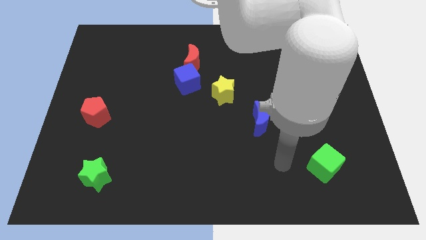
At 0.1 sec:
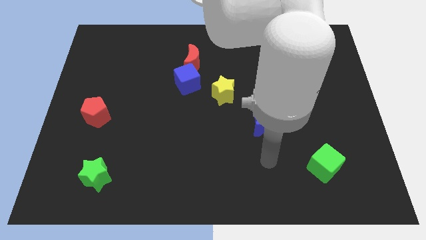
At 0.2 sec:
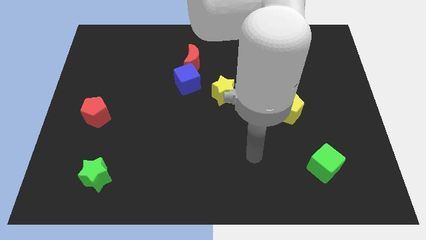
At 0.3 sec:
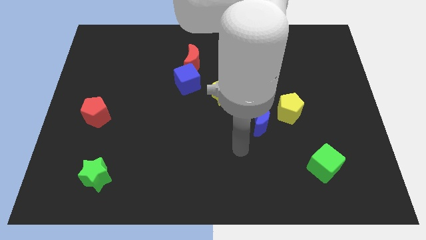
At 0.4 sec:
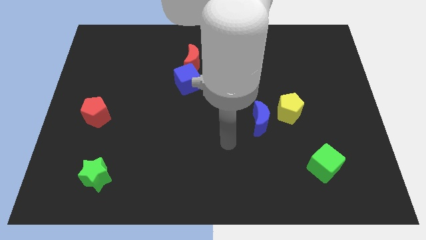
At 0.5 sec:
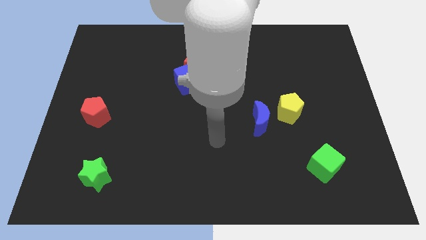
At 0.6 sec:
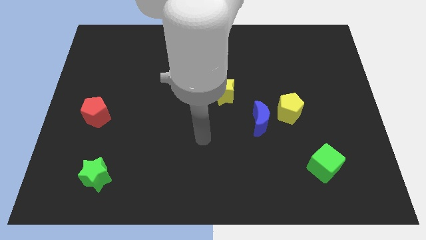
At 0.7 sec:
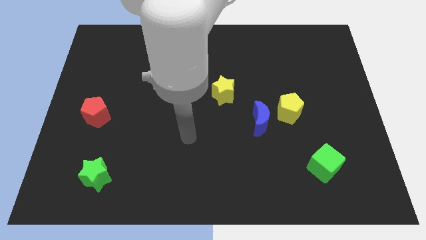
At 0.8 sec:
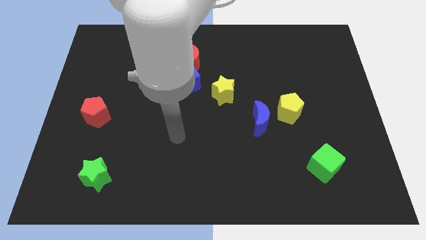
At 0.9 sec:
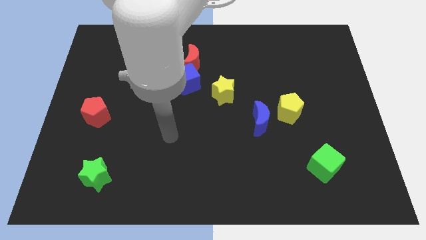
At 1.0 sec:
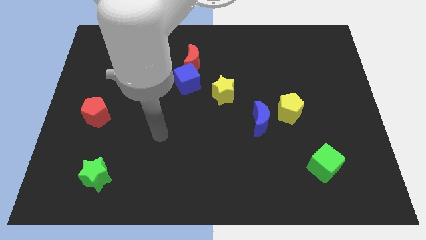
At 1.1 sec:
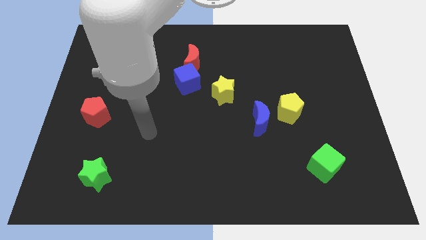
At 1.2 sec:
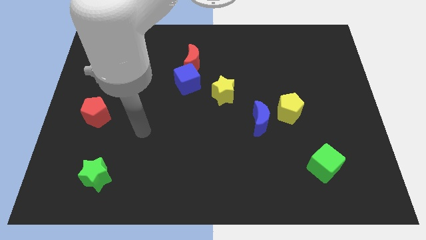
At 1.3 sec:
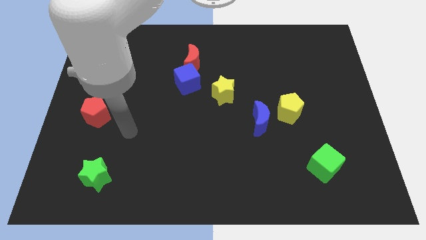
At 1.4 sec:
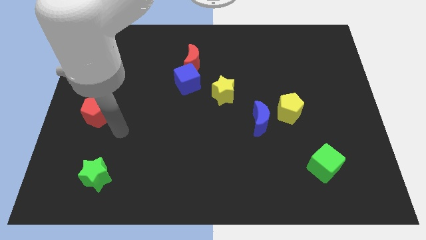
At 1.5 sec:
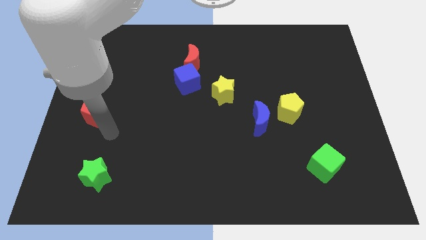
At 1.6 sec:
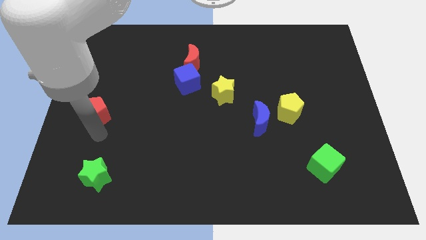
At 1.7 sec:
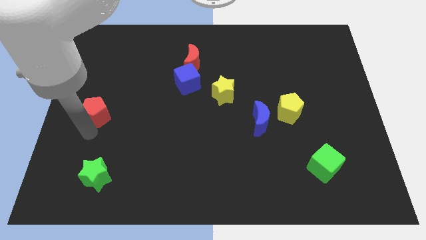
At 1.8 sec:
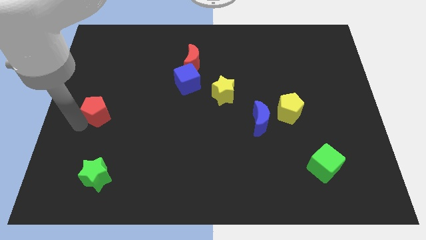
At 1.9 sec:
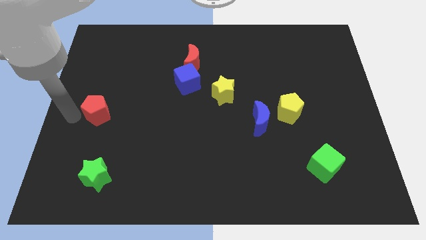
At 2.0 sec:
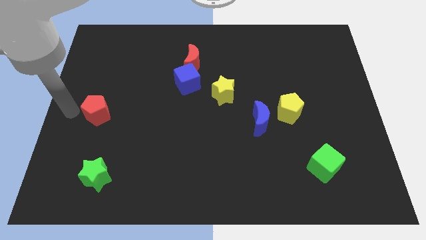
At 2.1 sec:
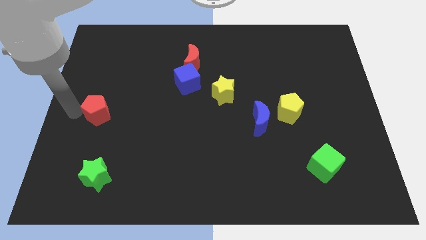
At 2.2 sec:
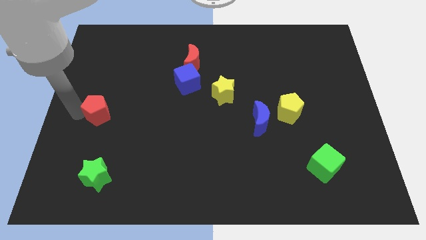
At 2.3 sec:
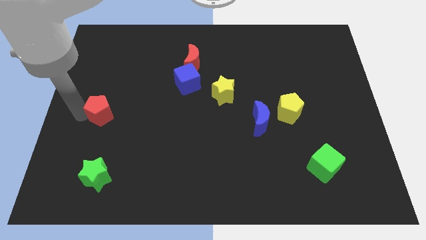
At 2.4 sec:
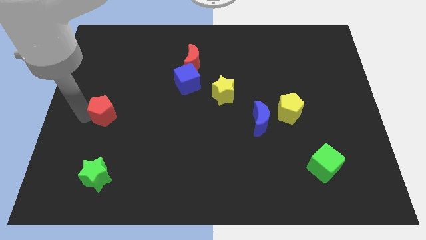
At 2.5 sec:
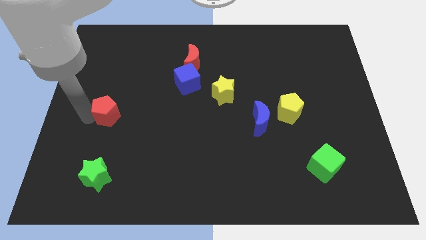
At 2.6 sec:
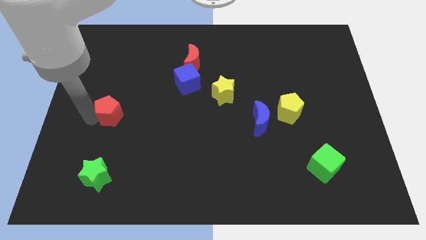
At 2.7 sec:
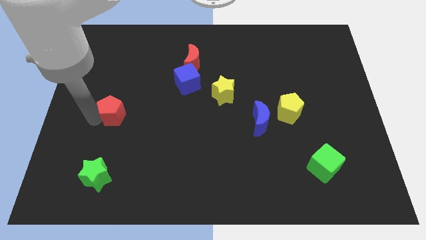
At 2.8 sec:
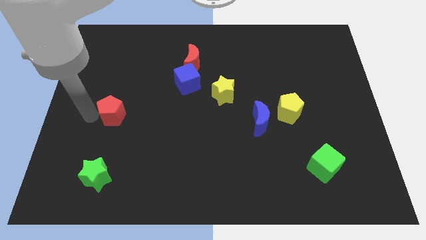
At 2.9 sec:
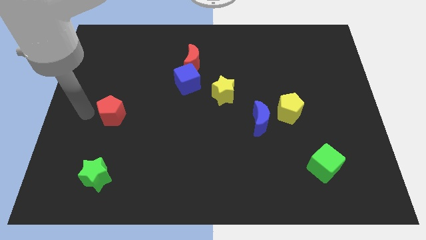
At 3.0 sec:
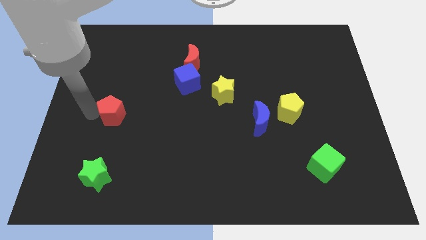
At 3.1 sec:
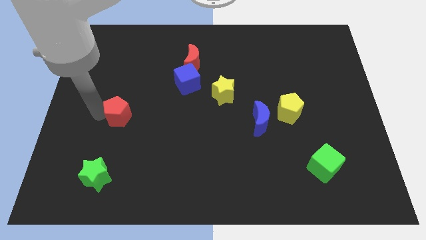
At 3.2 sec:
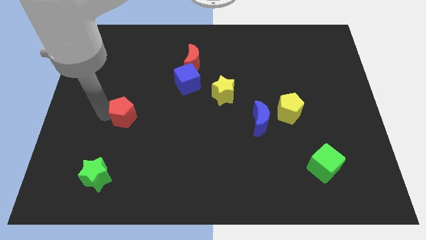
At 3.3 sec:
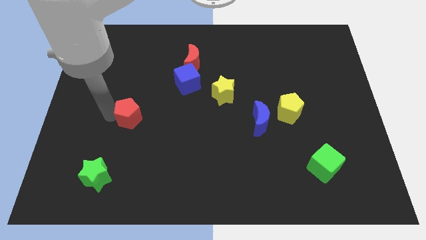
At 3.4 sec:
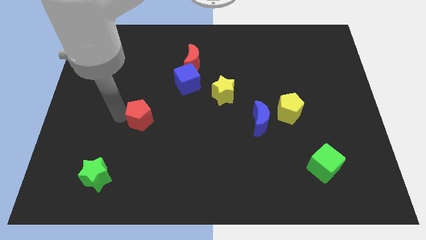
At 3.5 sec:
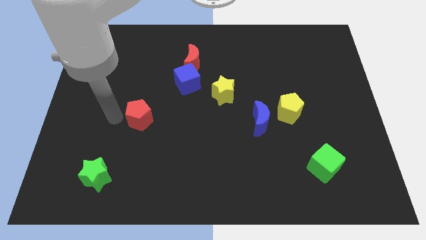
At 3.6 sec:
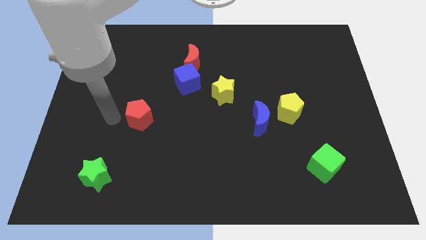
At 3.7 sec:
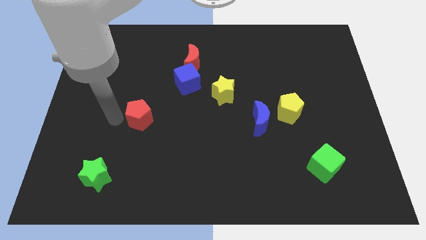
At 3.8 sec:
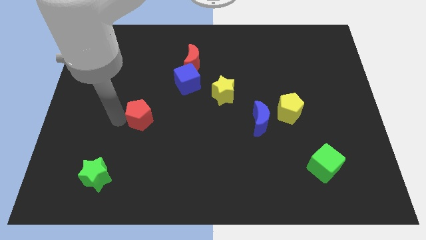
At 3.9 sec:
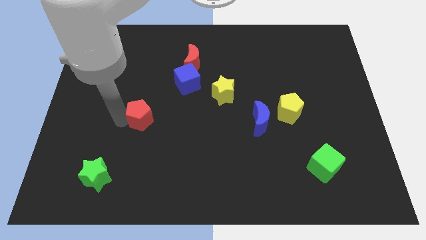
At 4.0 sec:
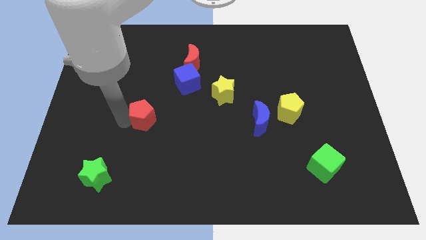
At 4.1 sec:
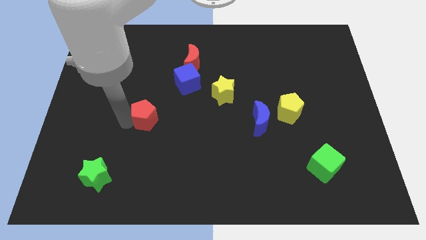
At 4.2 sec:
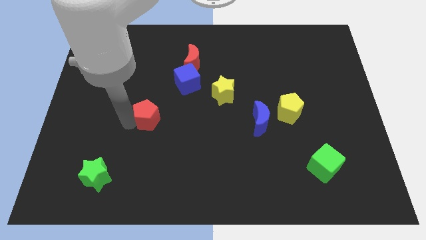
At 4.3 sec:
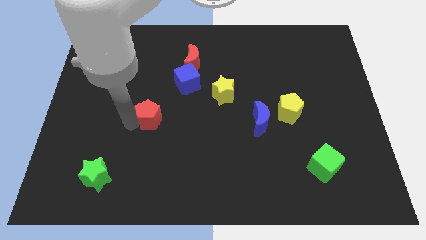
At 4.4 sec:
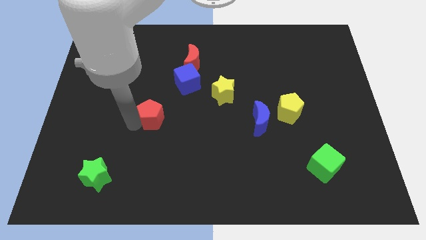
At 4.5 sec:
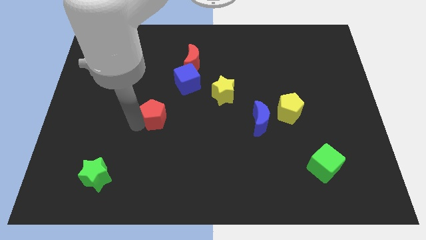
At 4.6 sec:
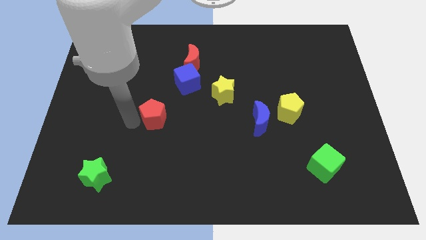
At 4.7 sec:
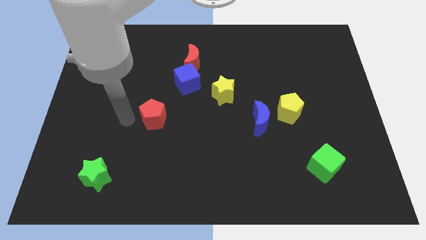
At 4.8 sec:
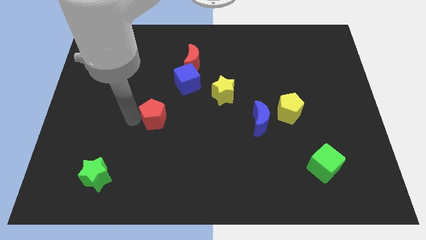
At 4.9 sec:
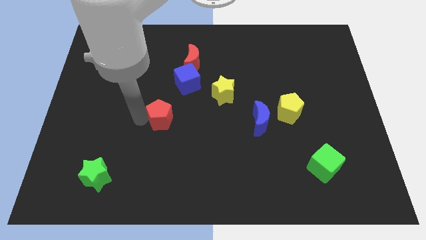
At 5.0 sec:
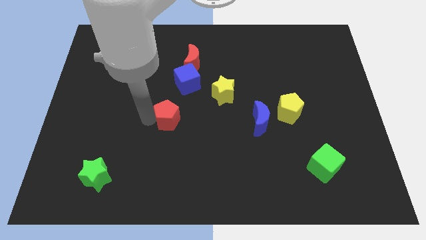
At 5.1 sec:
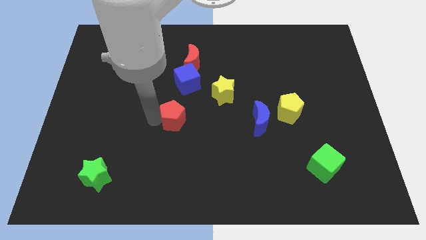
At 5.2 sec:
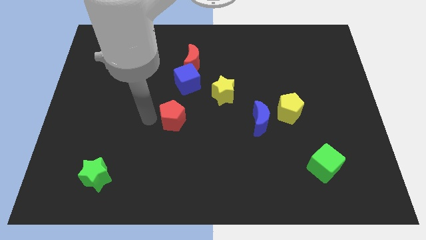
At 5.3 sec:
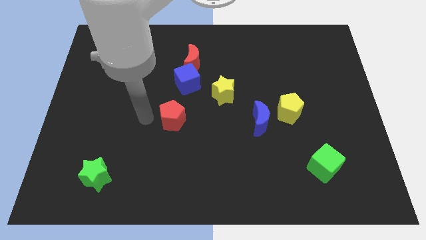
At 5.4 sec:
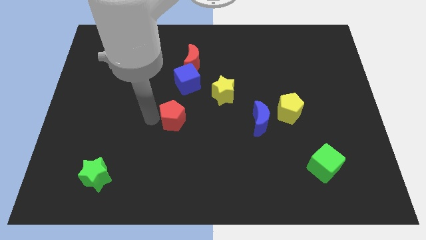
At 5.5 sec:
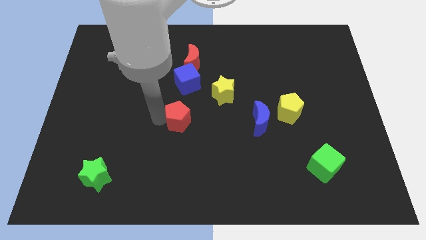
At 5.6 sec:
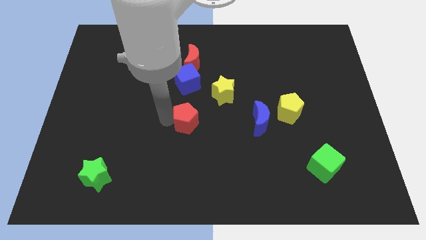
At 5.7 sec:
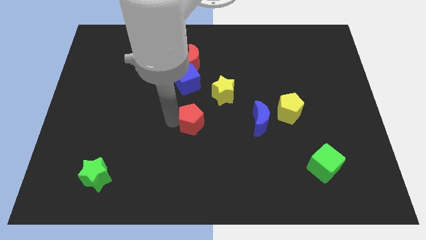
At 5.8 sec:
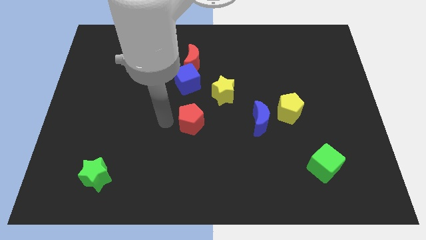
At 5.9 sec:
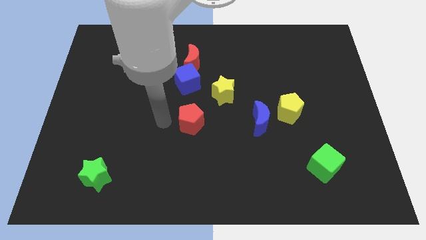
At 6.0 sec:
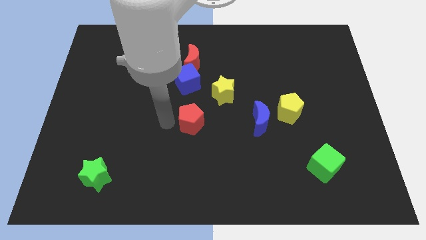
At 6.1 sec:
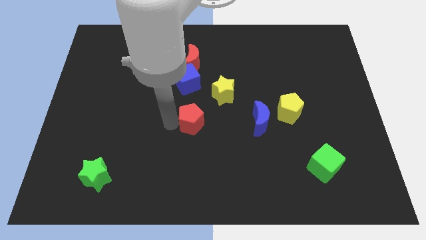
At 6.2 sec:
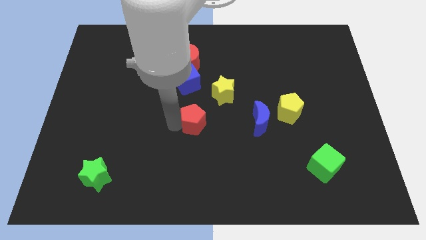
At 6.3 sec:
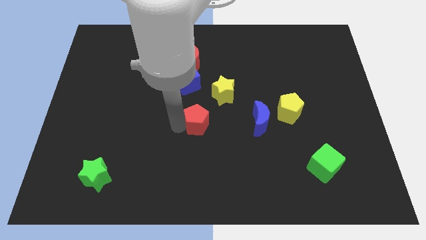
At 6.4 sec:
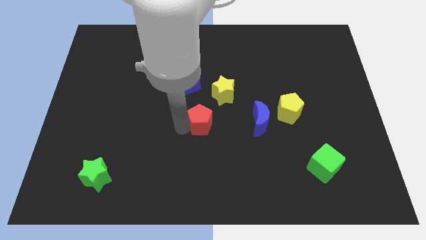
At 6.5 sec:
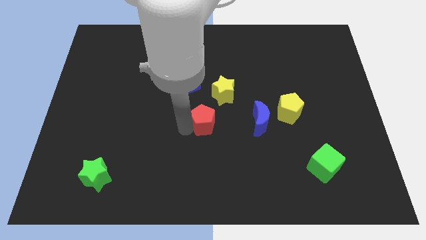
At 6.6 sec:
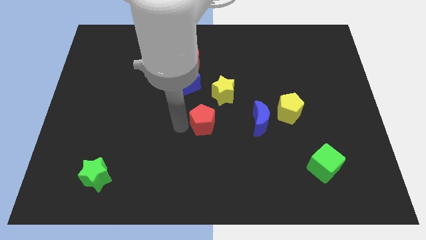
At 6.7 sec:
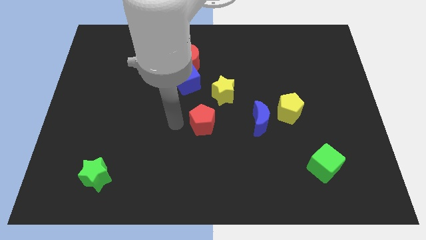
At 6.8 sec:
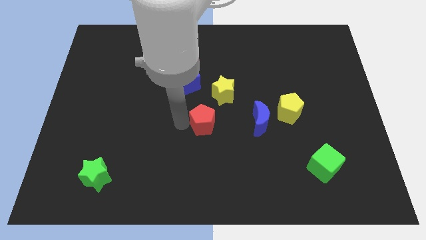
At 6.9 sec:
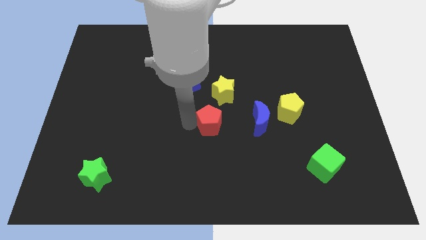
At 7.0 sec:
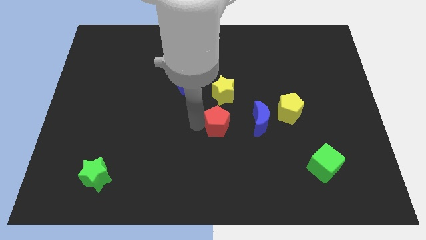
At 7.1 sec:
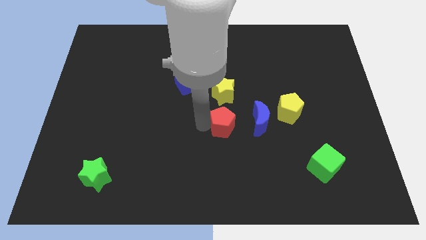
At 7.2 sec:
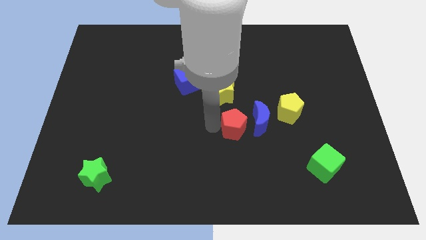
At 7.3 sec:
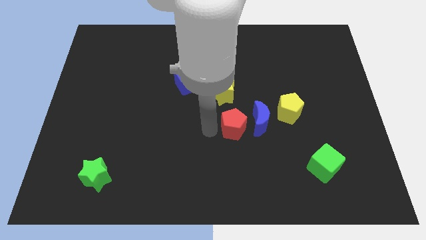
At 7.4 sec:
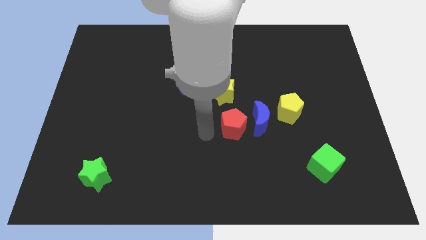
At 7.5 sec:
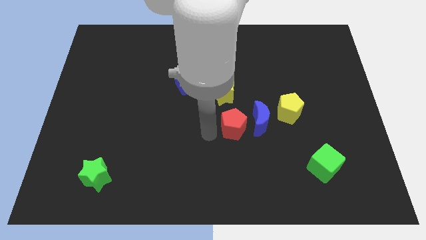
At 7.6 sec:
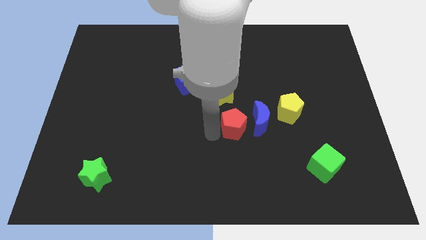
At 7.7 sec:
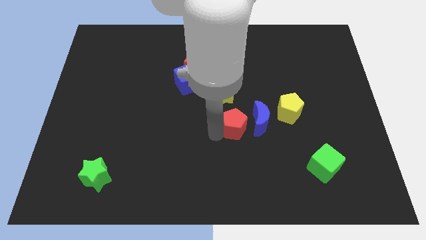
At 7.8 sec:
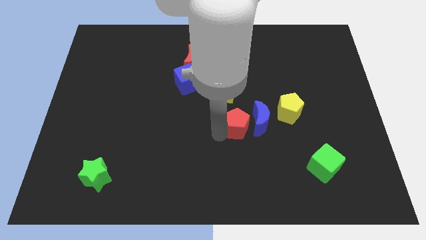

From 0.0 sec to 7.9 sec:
move the red pentagon to the blue moon
